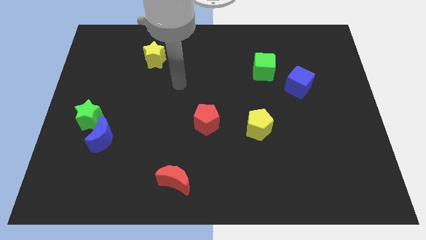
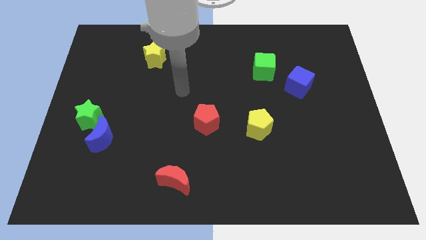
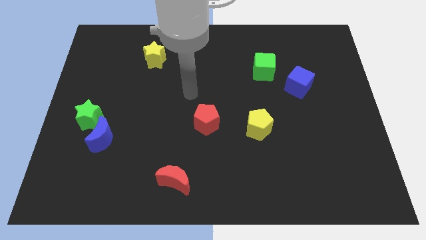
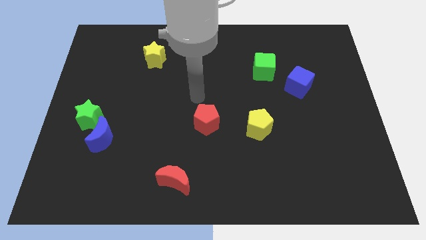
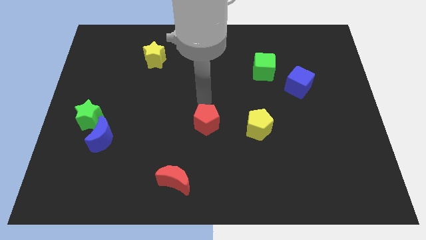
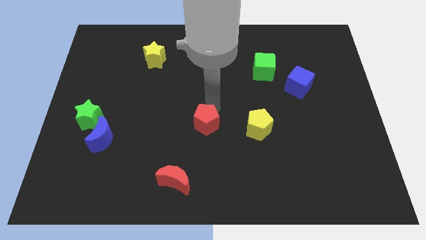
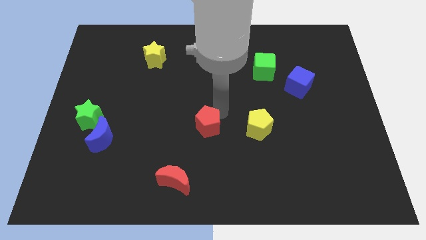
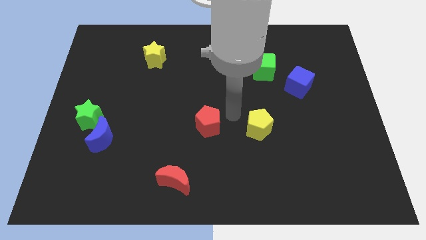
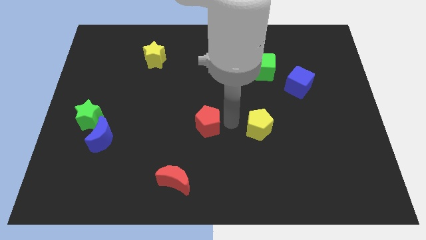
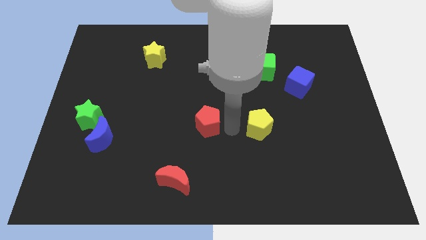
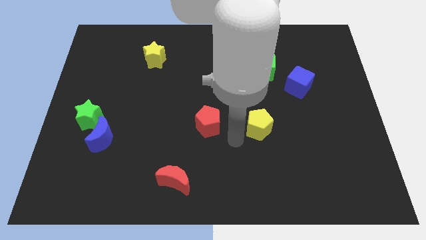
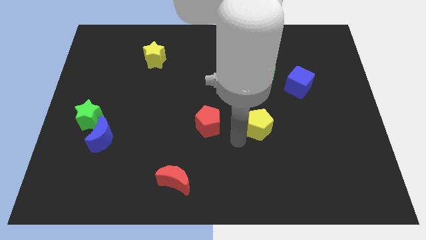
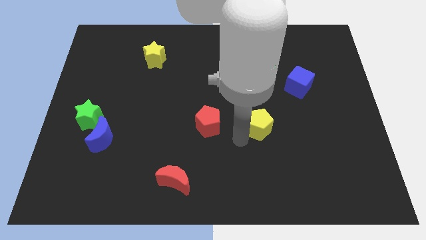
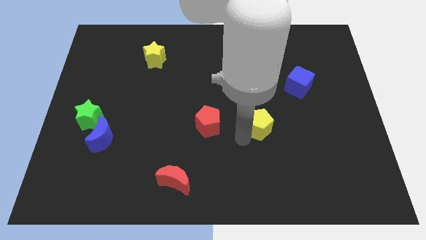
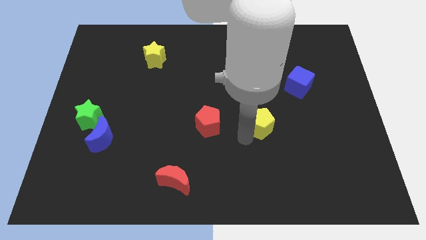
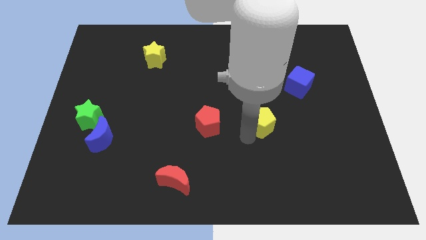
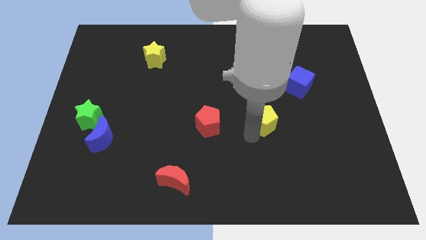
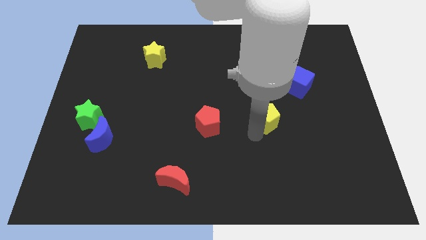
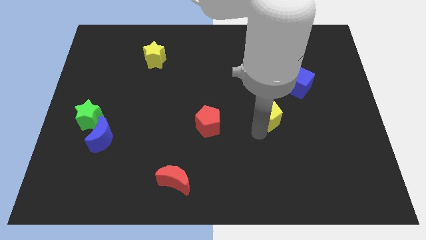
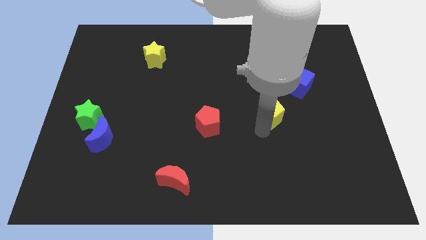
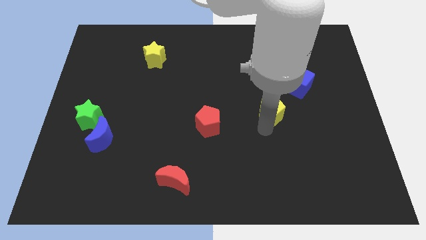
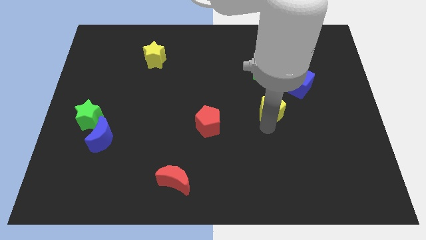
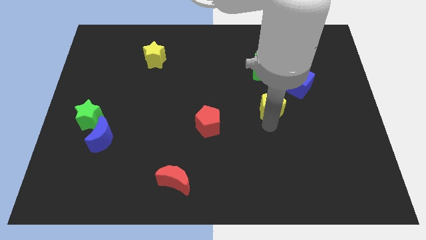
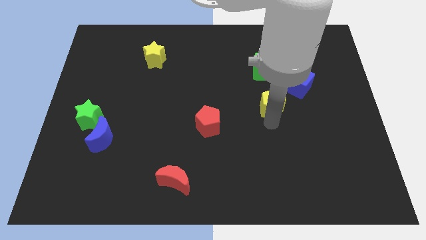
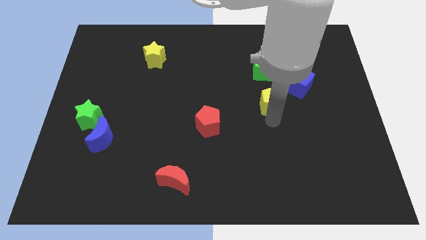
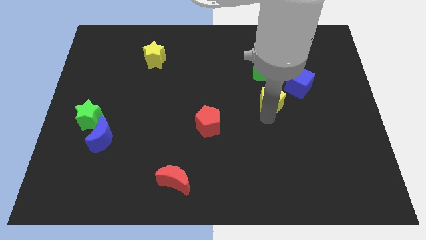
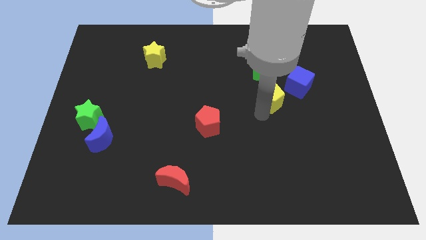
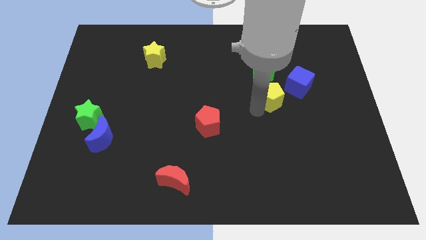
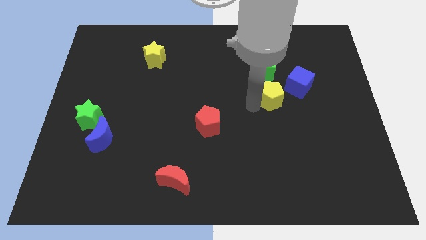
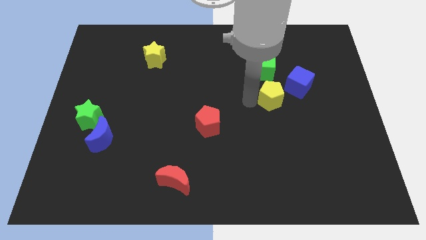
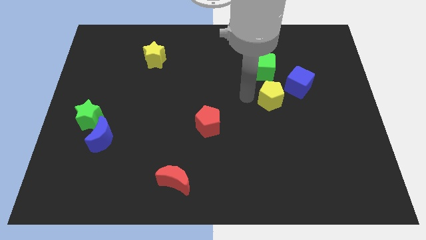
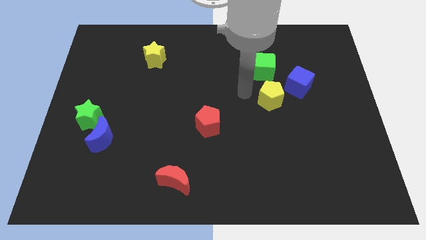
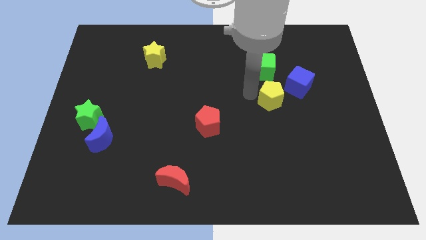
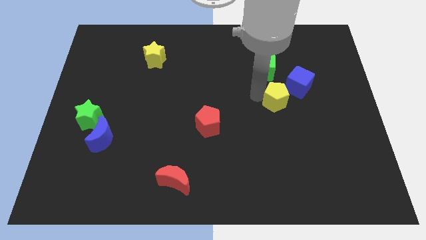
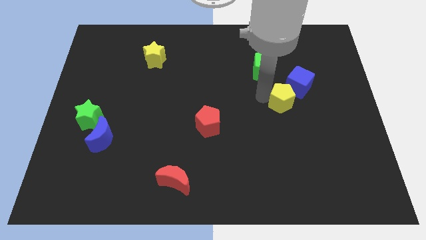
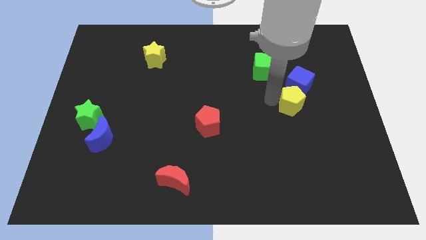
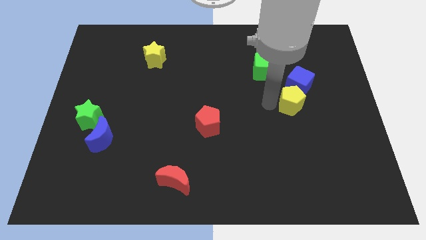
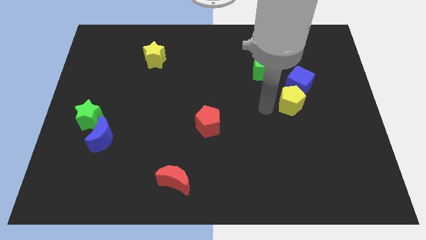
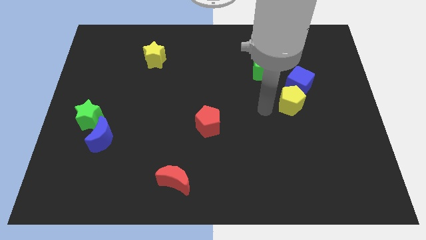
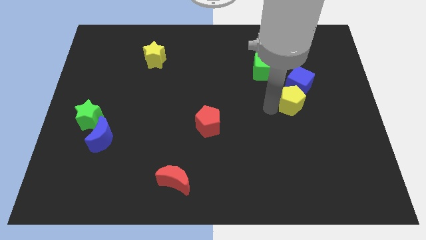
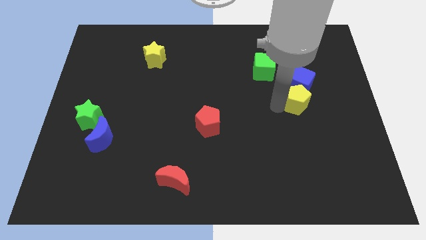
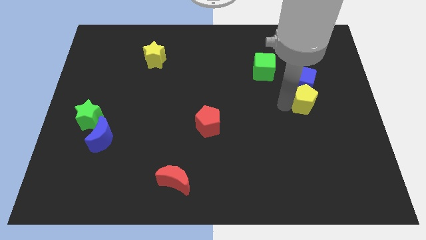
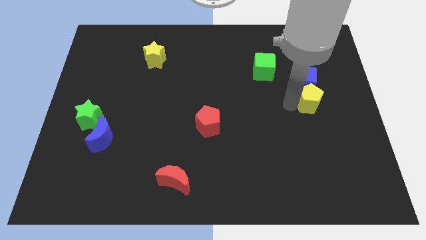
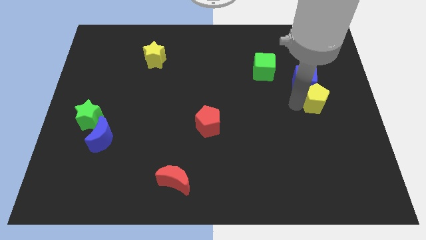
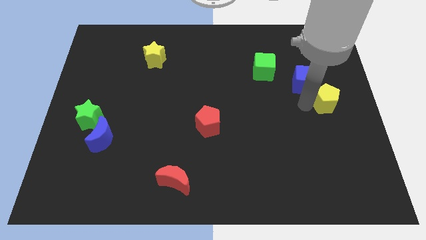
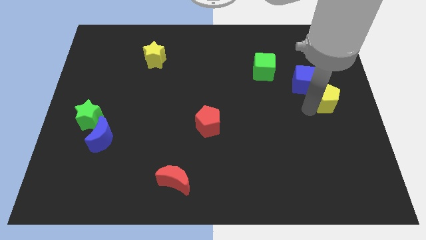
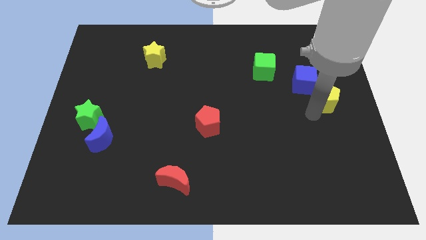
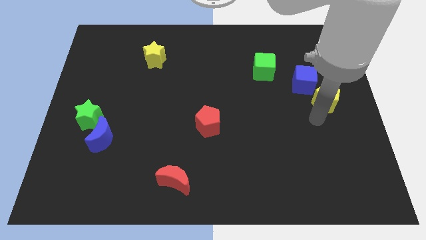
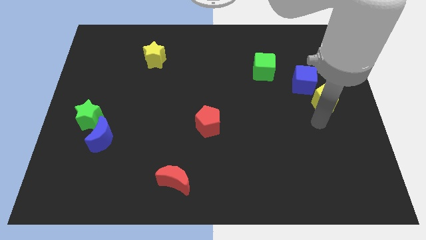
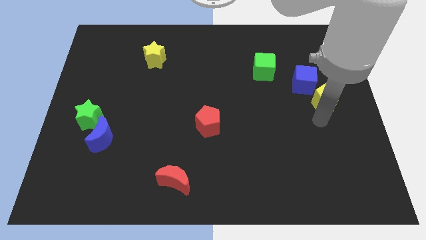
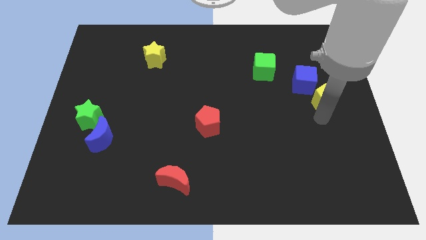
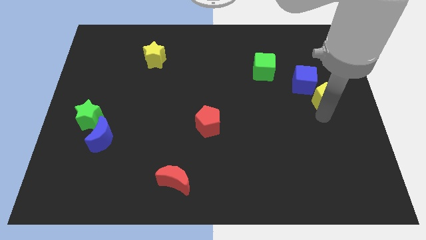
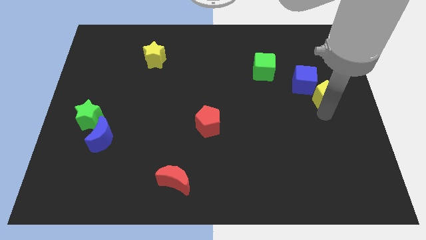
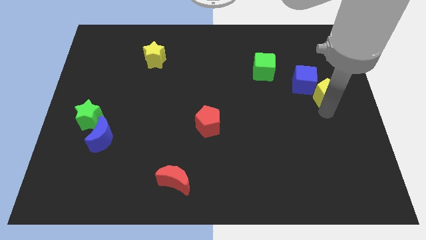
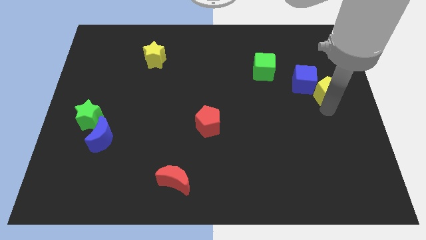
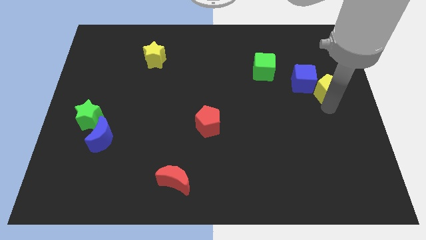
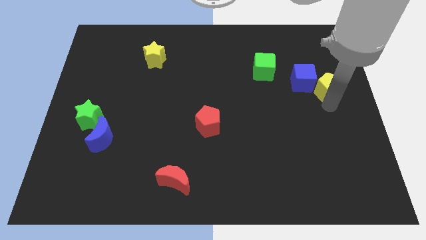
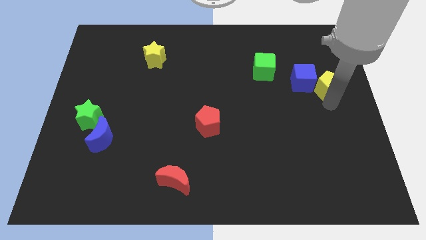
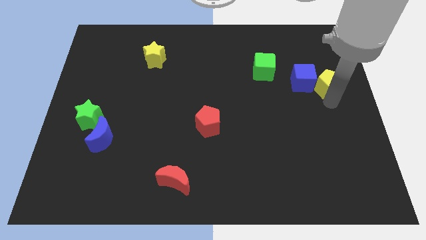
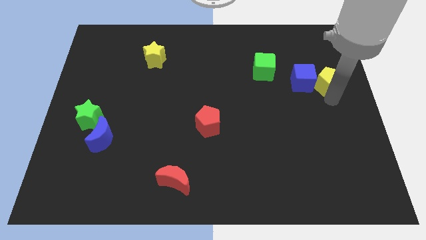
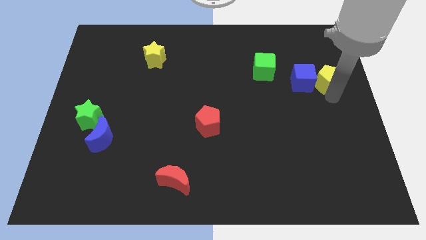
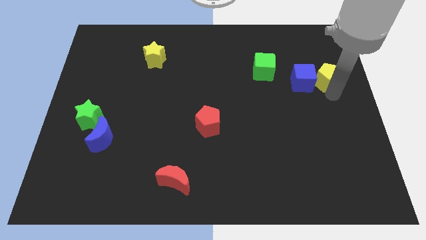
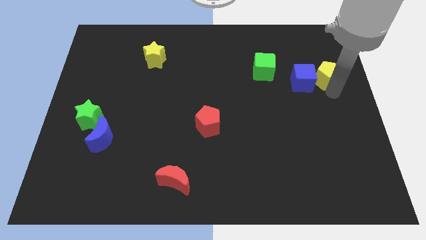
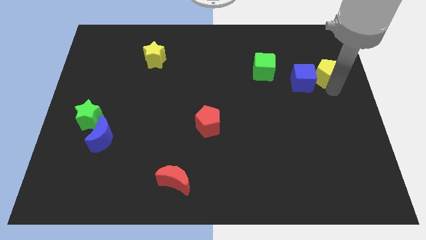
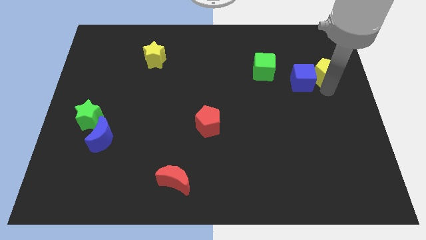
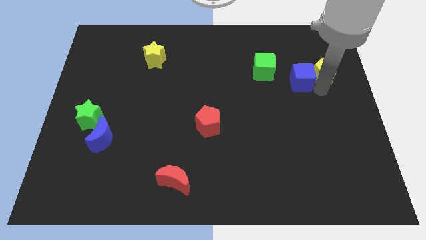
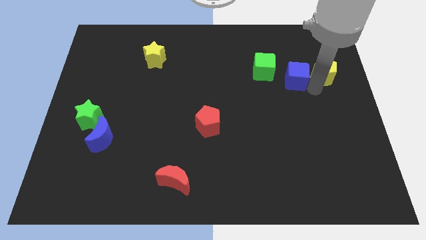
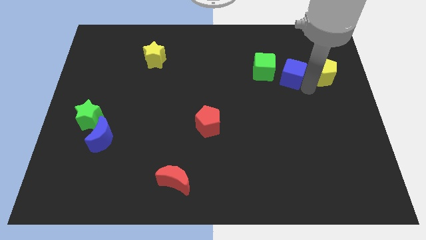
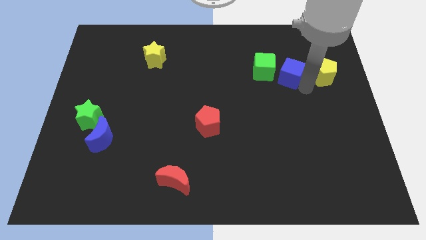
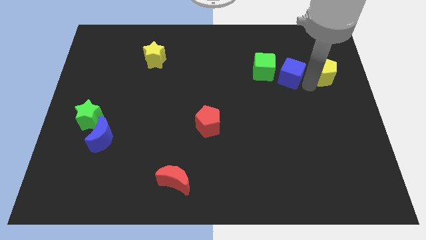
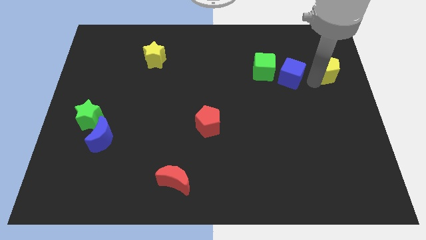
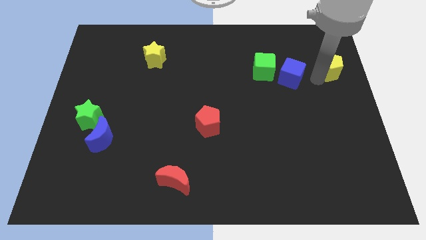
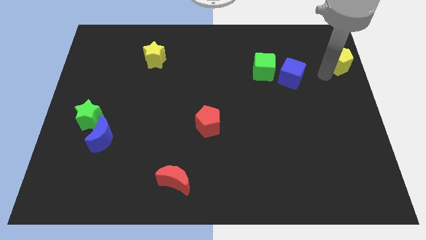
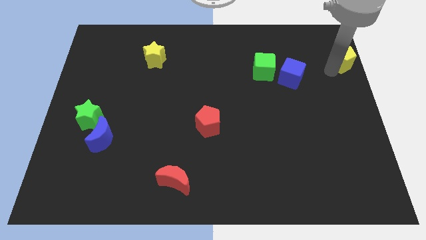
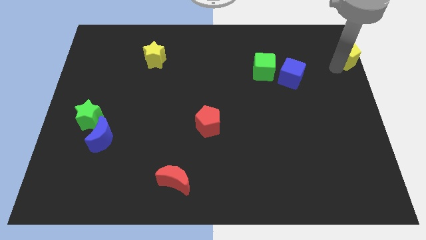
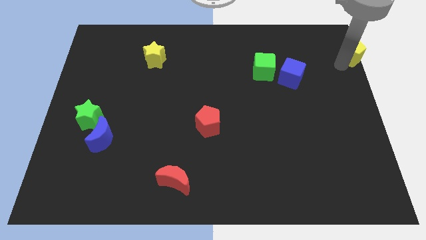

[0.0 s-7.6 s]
put the yellow pentagon to the top right corner
